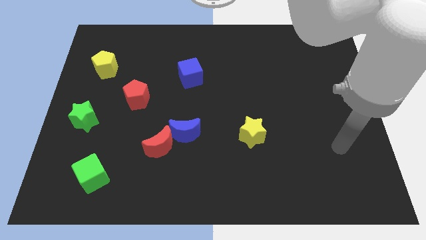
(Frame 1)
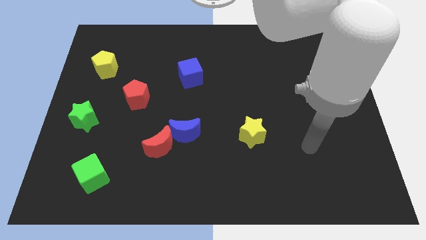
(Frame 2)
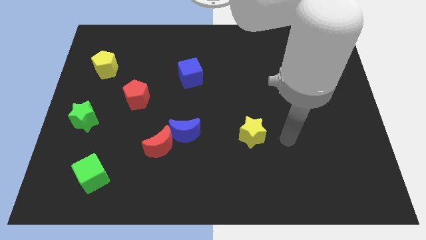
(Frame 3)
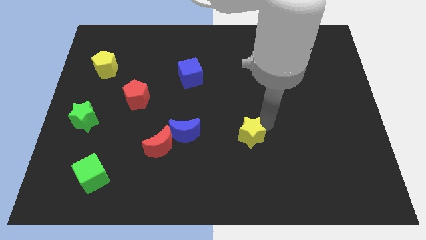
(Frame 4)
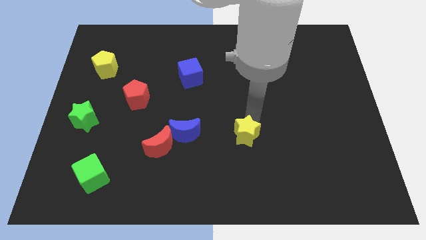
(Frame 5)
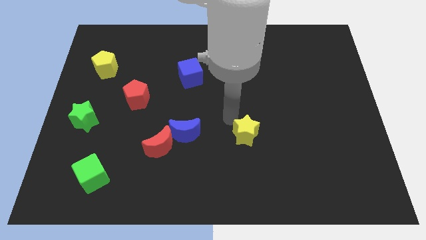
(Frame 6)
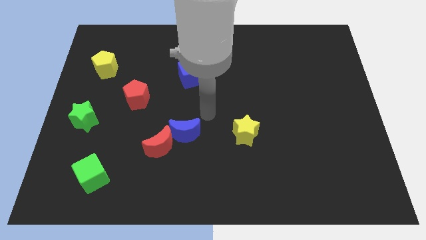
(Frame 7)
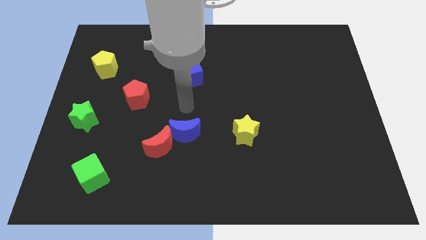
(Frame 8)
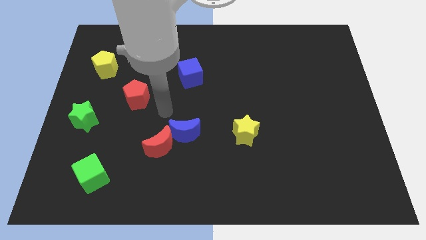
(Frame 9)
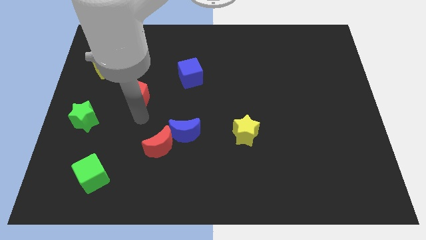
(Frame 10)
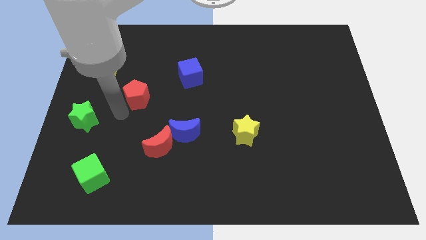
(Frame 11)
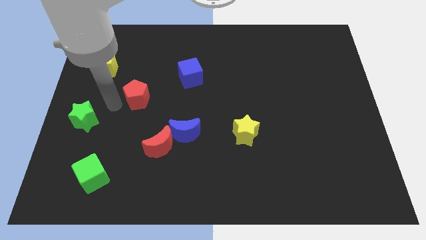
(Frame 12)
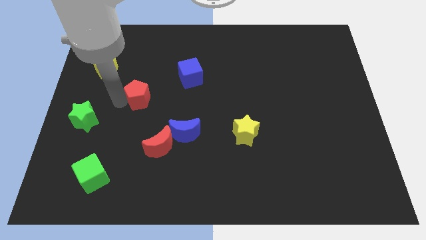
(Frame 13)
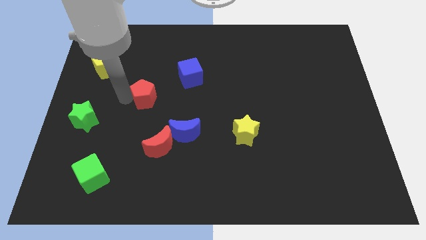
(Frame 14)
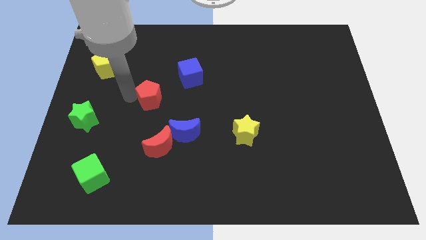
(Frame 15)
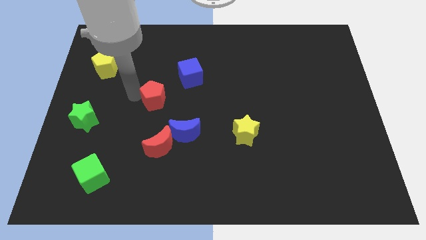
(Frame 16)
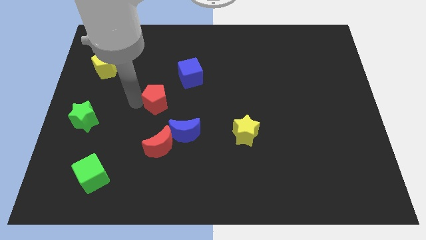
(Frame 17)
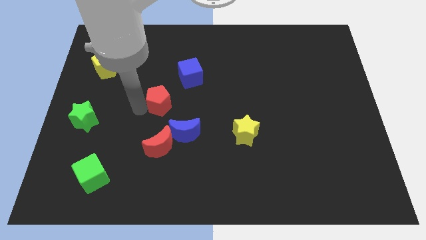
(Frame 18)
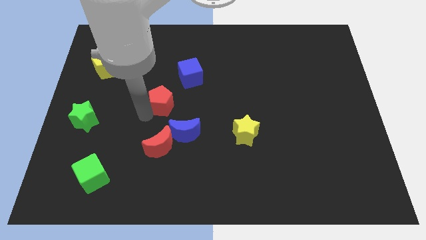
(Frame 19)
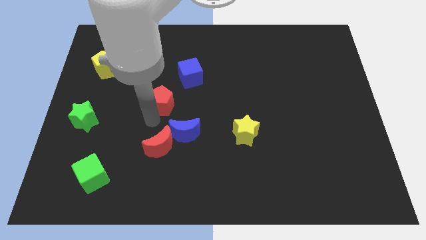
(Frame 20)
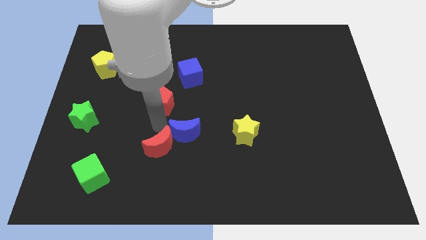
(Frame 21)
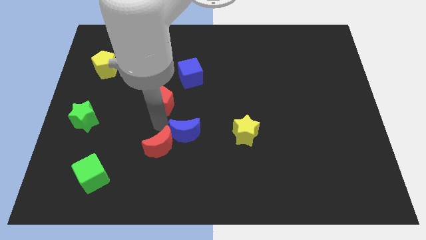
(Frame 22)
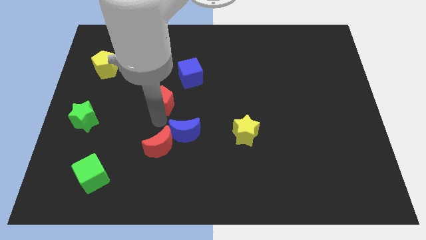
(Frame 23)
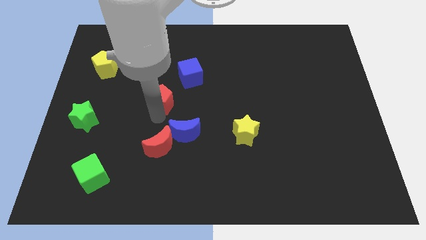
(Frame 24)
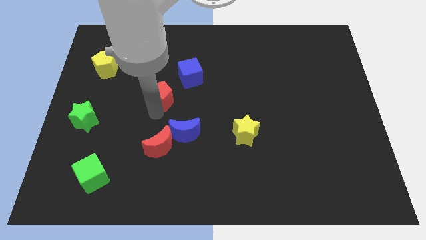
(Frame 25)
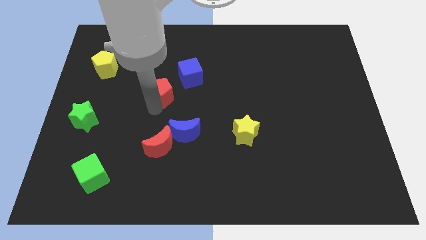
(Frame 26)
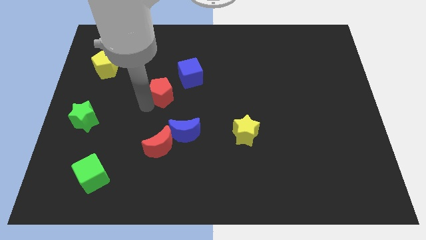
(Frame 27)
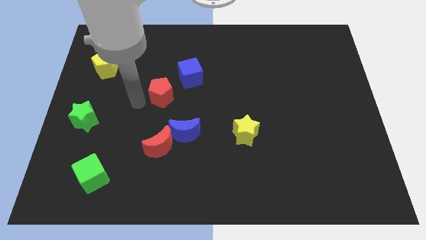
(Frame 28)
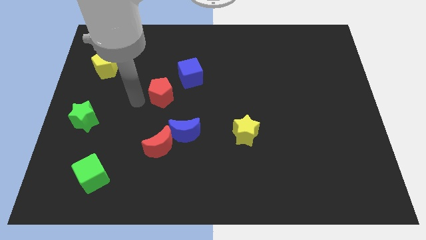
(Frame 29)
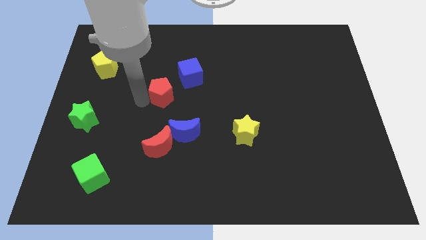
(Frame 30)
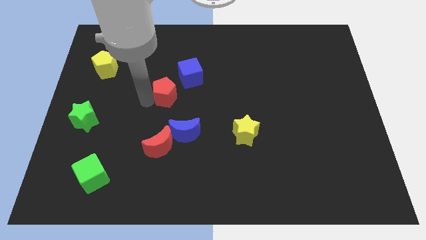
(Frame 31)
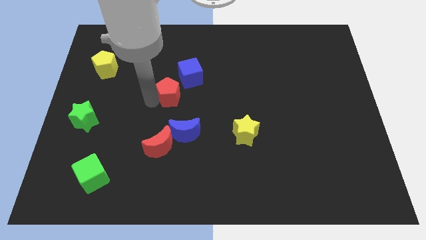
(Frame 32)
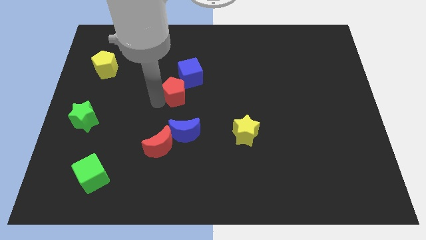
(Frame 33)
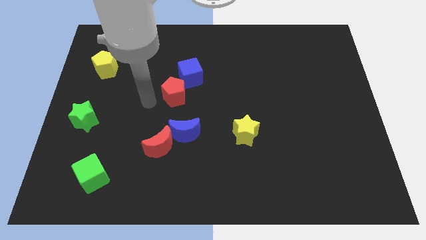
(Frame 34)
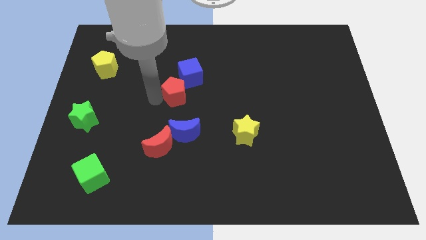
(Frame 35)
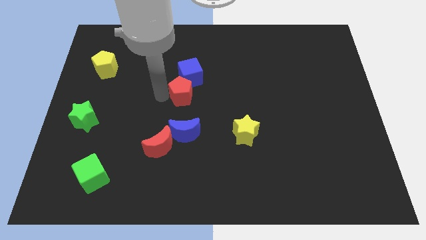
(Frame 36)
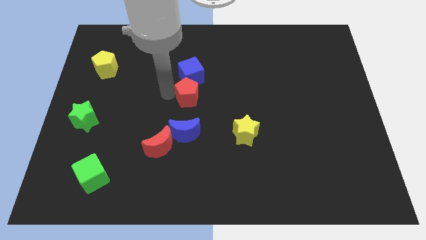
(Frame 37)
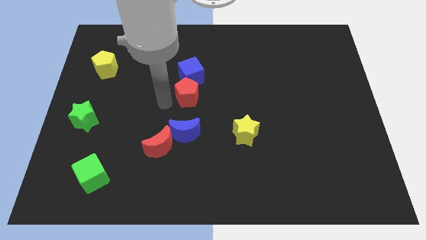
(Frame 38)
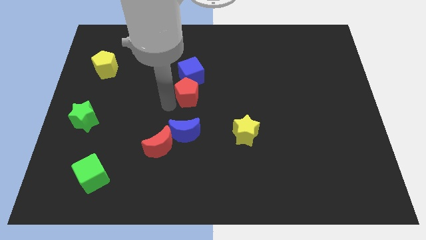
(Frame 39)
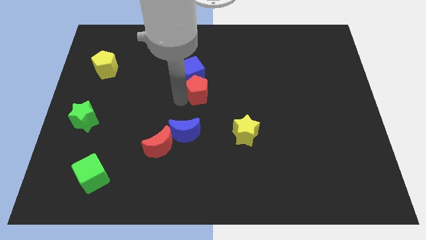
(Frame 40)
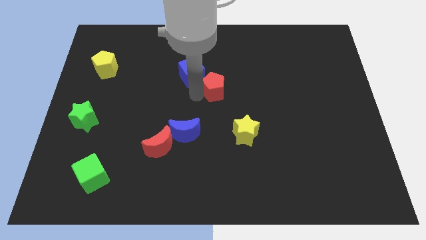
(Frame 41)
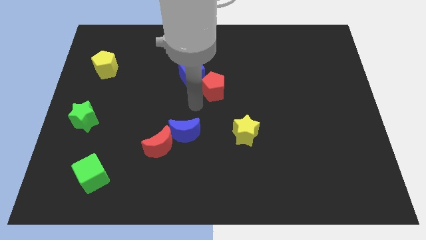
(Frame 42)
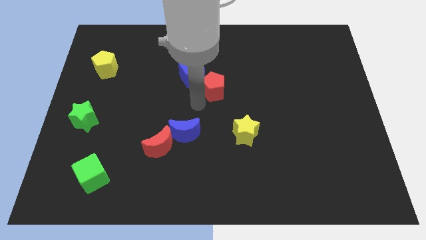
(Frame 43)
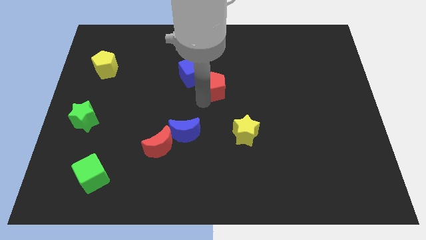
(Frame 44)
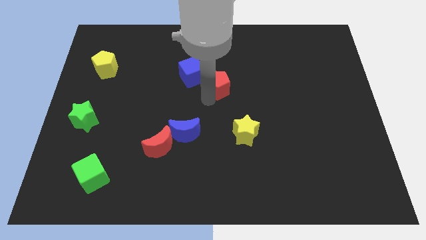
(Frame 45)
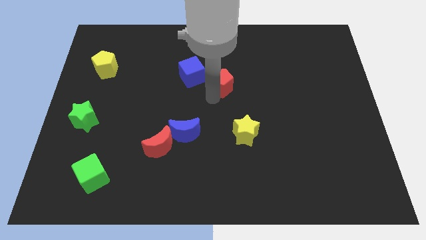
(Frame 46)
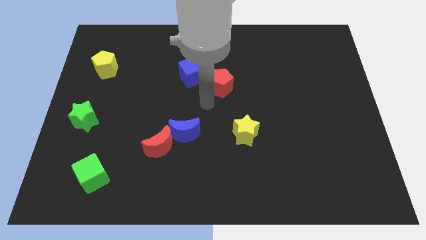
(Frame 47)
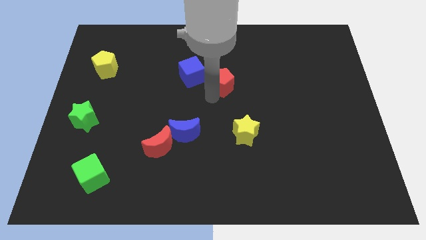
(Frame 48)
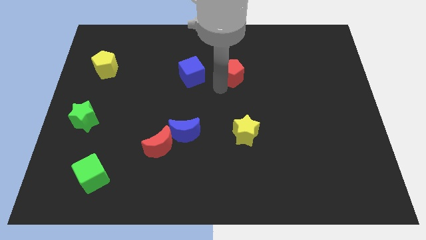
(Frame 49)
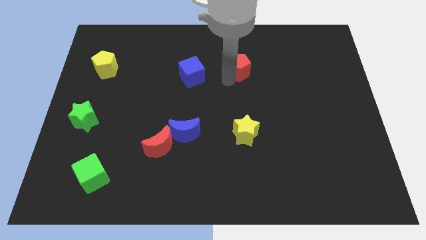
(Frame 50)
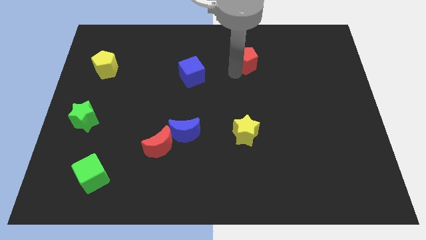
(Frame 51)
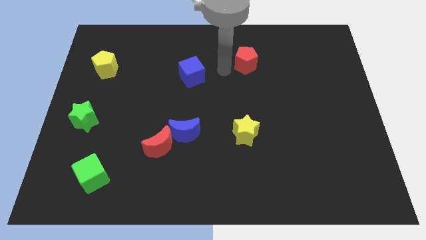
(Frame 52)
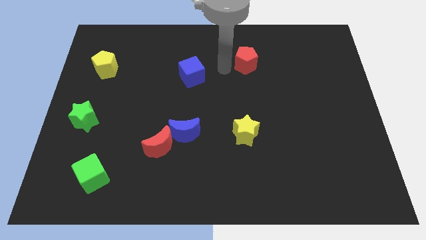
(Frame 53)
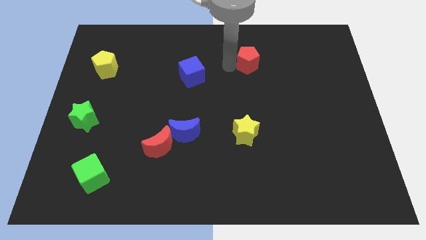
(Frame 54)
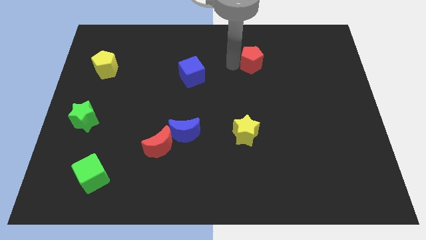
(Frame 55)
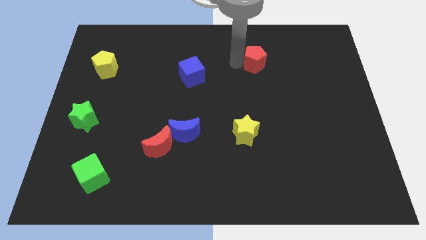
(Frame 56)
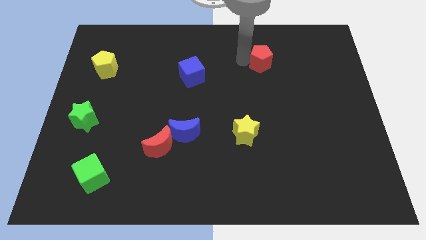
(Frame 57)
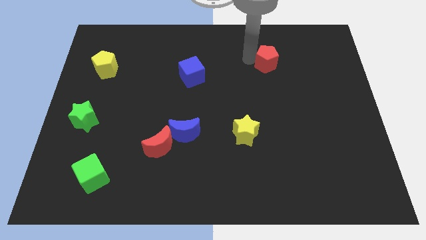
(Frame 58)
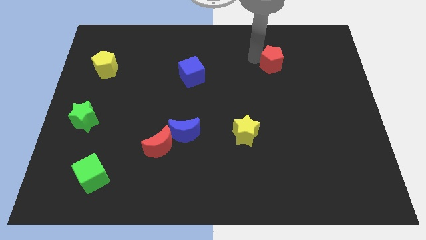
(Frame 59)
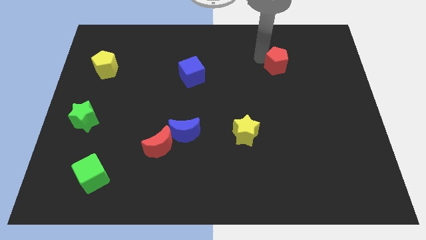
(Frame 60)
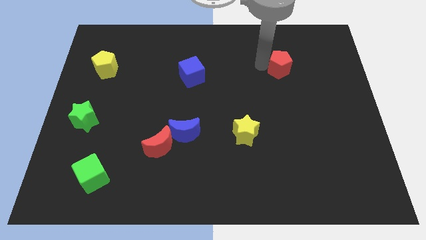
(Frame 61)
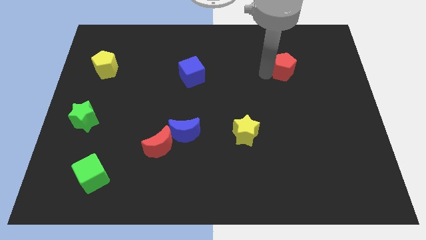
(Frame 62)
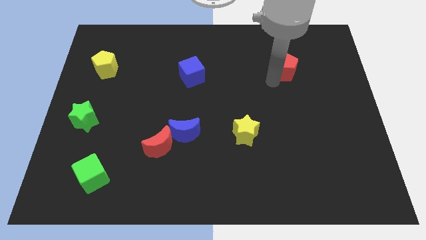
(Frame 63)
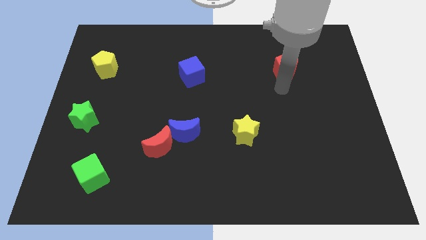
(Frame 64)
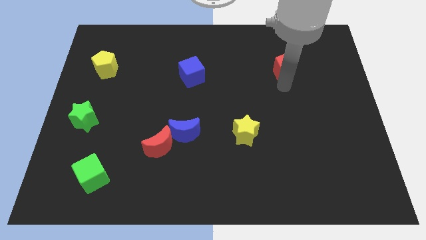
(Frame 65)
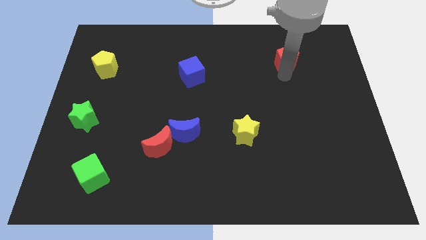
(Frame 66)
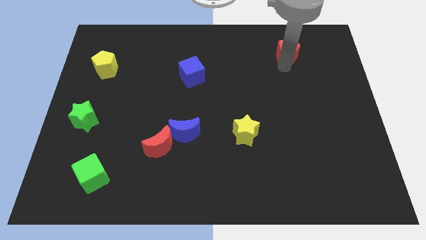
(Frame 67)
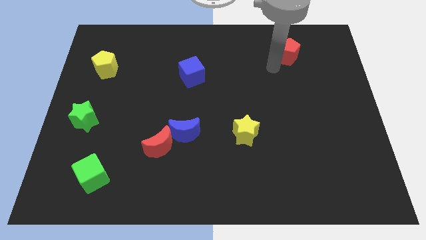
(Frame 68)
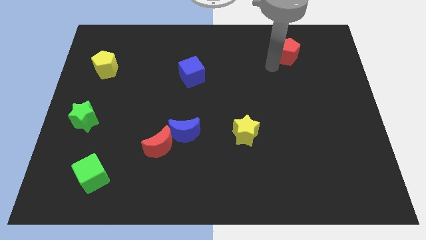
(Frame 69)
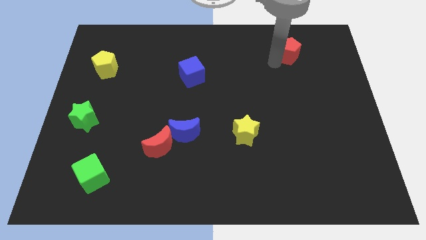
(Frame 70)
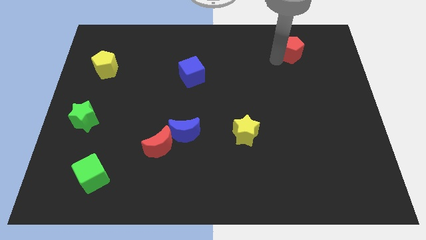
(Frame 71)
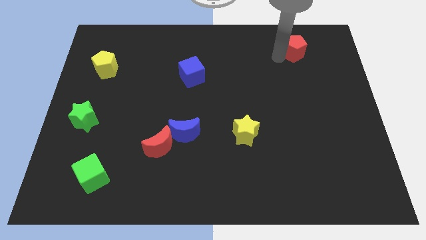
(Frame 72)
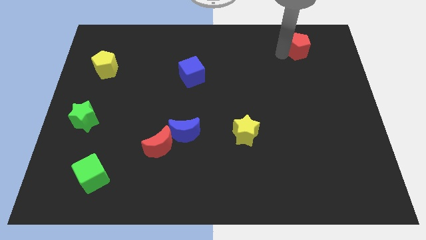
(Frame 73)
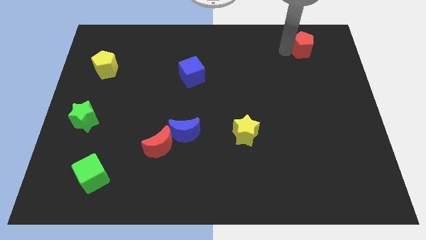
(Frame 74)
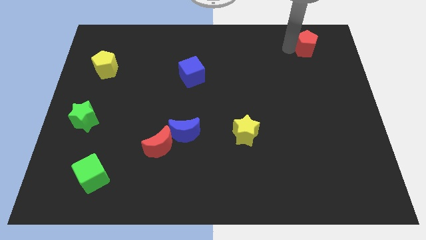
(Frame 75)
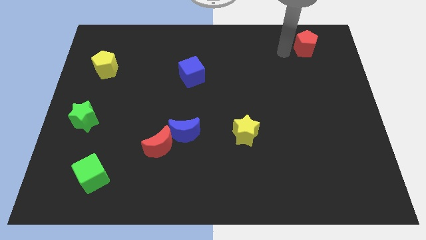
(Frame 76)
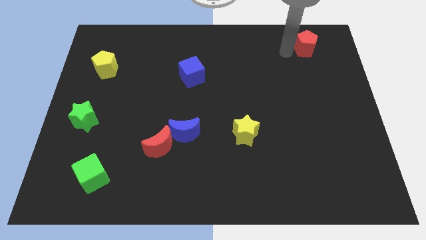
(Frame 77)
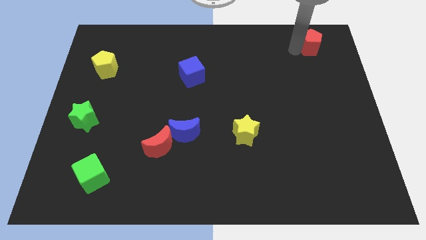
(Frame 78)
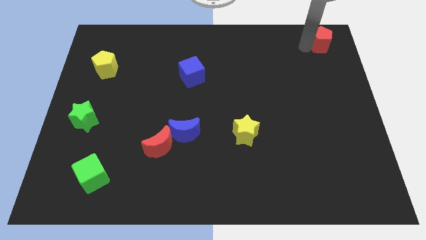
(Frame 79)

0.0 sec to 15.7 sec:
push the red pentagon to the top right corner
